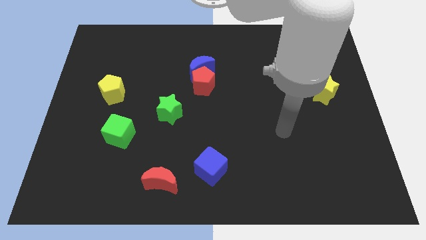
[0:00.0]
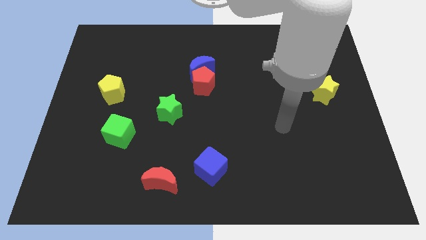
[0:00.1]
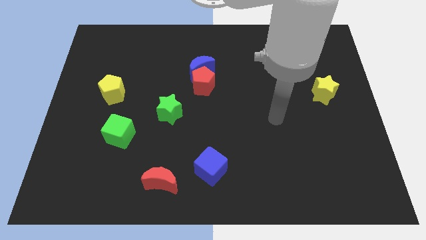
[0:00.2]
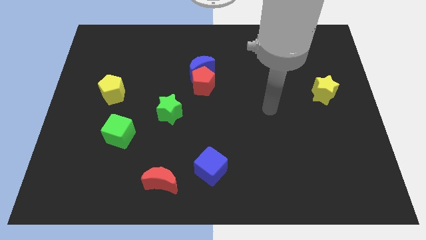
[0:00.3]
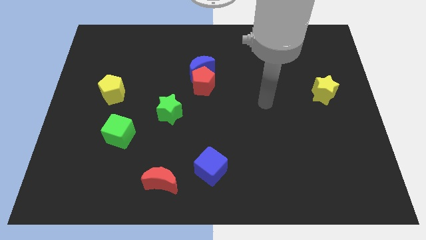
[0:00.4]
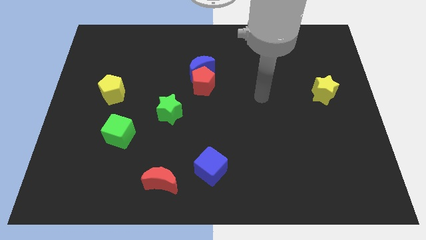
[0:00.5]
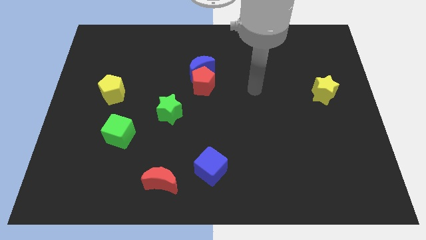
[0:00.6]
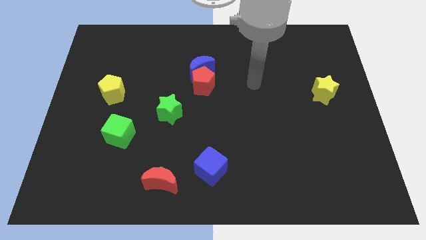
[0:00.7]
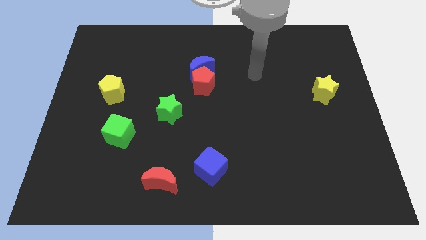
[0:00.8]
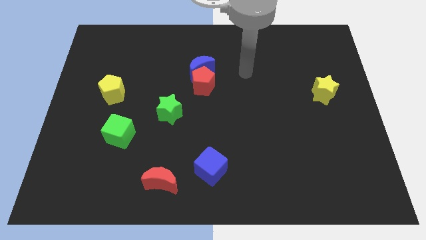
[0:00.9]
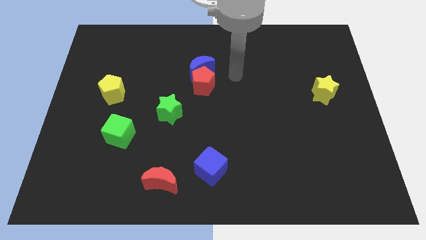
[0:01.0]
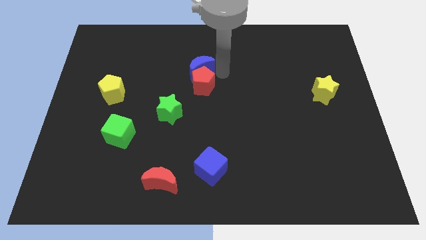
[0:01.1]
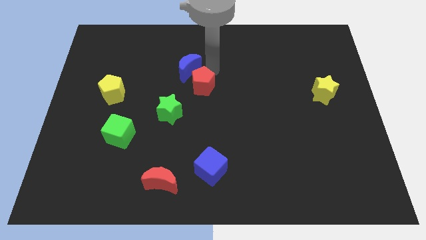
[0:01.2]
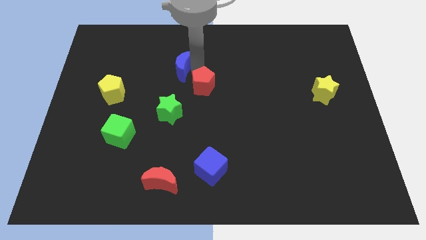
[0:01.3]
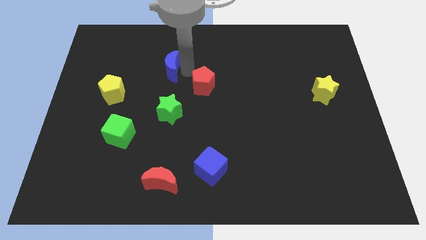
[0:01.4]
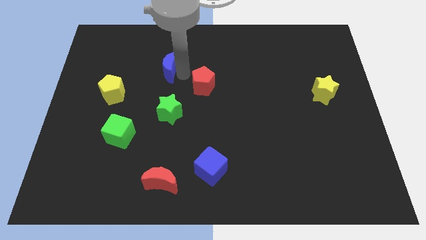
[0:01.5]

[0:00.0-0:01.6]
move the red pentagon away from the blue moon

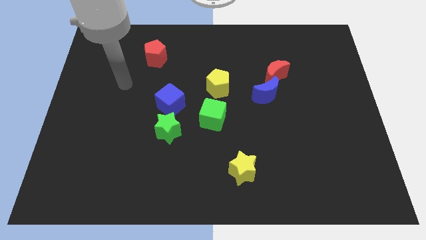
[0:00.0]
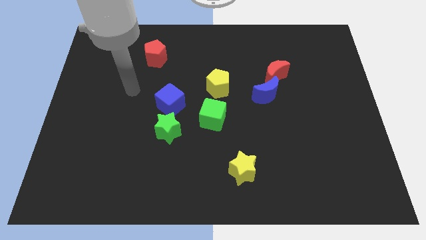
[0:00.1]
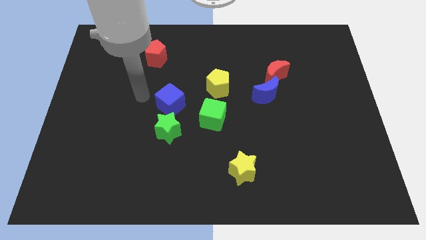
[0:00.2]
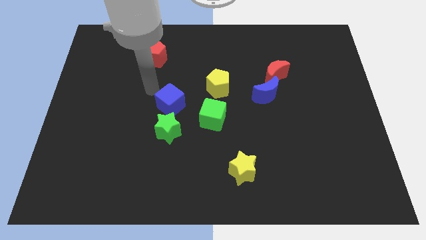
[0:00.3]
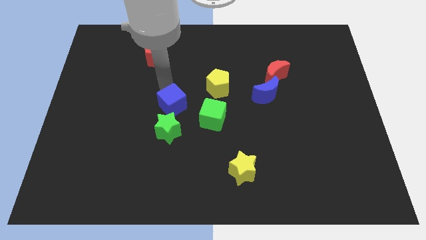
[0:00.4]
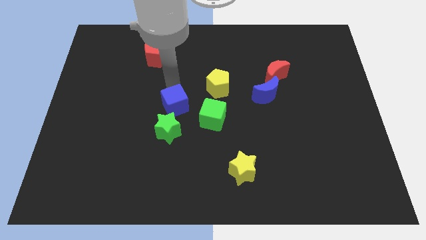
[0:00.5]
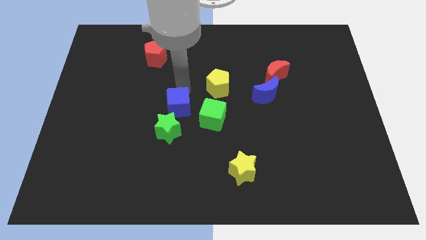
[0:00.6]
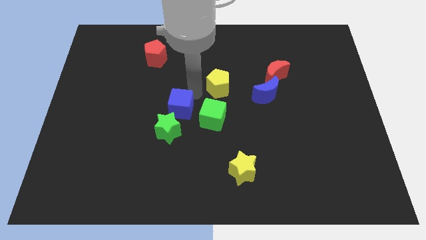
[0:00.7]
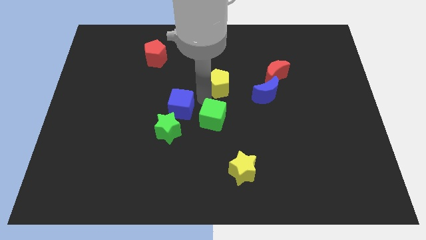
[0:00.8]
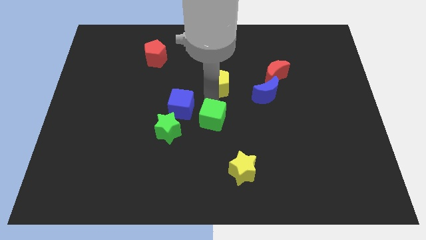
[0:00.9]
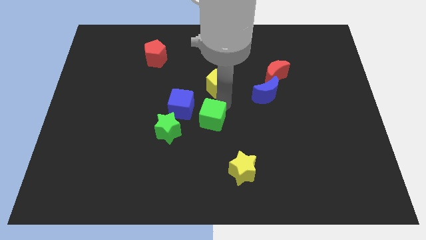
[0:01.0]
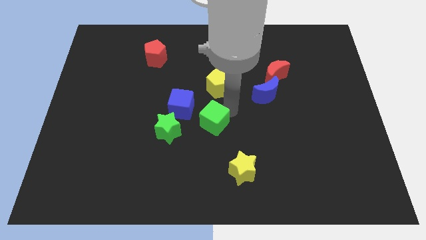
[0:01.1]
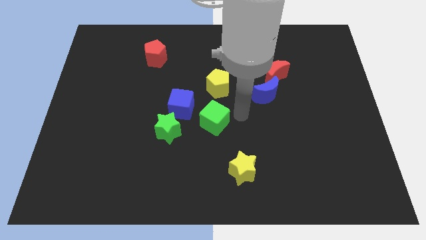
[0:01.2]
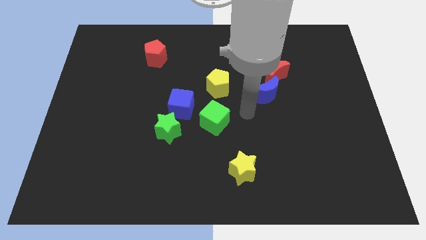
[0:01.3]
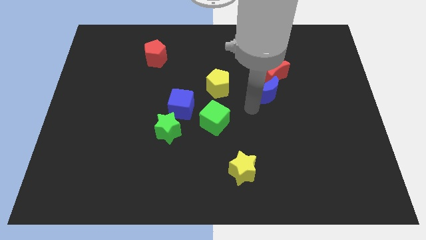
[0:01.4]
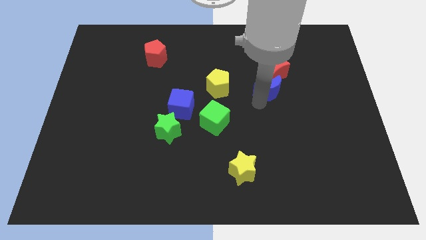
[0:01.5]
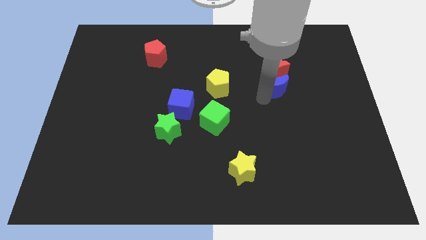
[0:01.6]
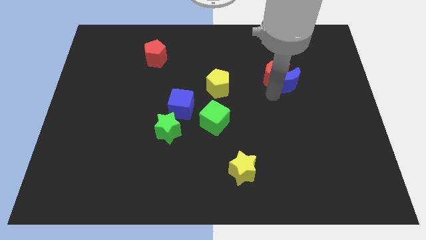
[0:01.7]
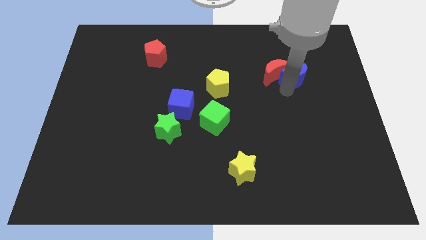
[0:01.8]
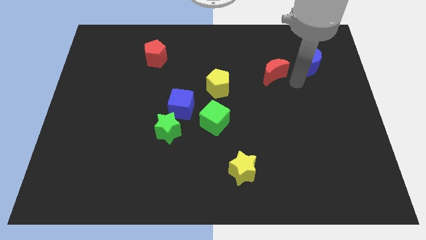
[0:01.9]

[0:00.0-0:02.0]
move the red moon away from the blue moon

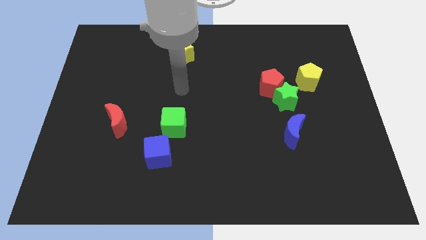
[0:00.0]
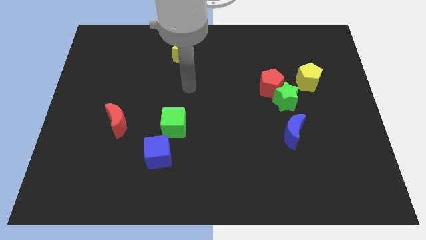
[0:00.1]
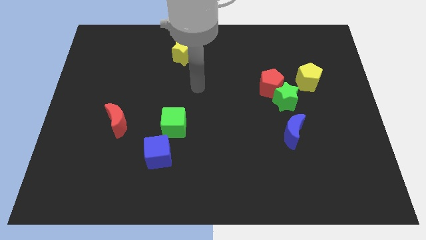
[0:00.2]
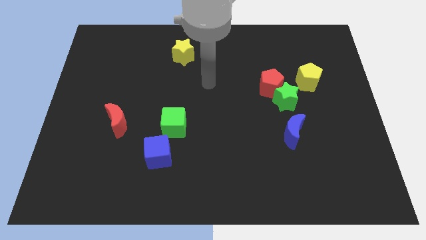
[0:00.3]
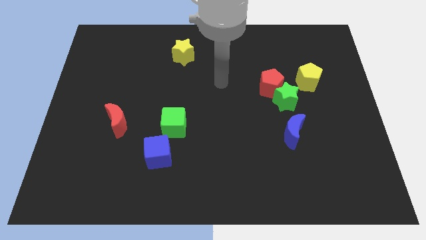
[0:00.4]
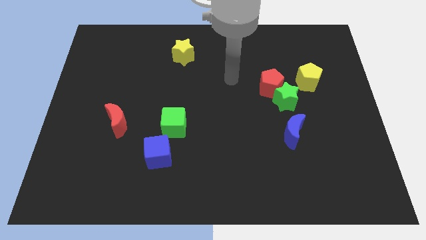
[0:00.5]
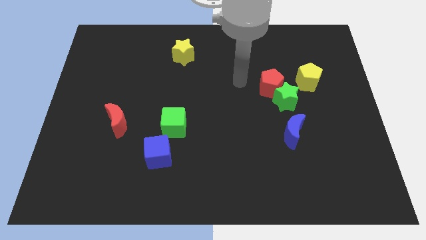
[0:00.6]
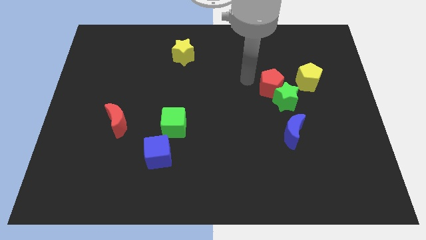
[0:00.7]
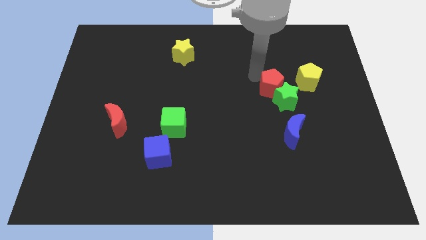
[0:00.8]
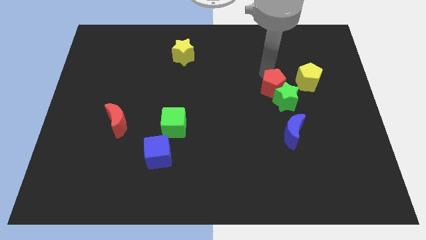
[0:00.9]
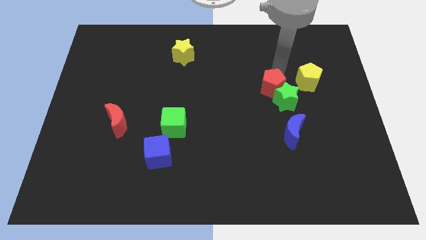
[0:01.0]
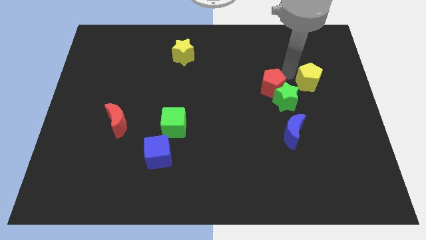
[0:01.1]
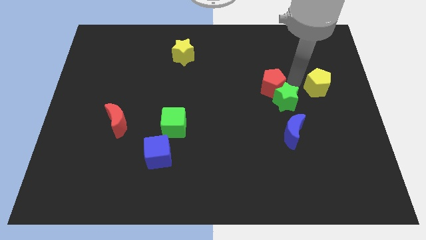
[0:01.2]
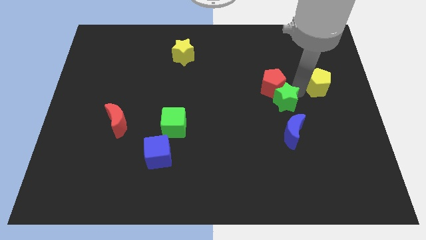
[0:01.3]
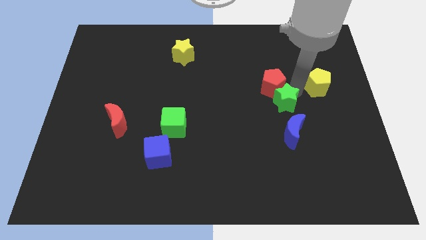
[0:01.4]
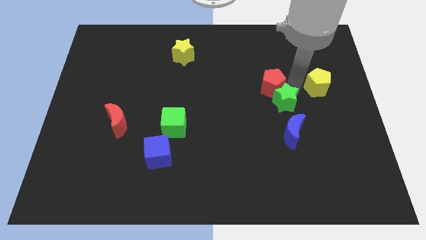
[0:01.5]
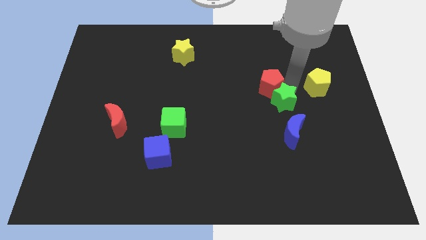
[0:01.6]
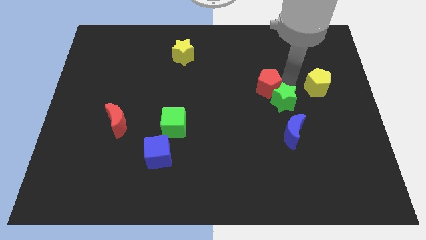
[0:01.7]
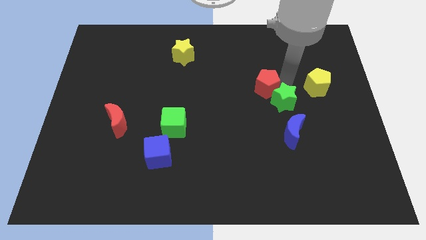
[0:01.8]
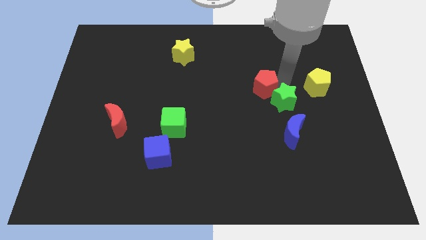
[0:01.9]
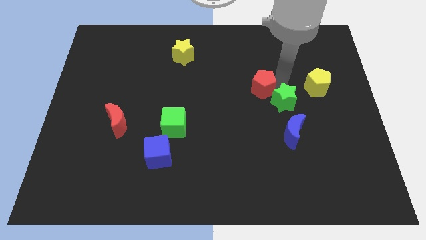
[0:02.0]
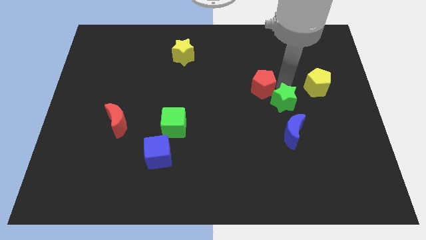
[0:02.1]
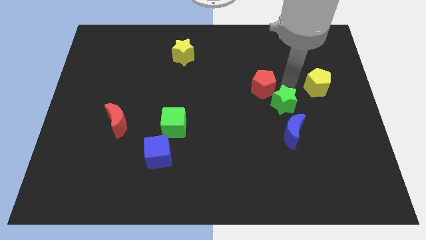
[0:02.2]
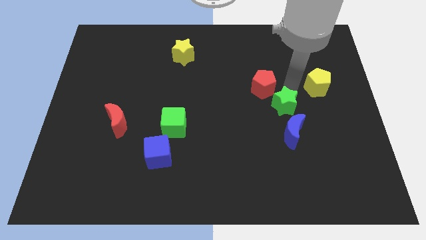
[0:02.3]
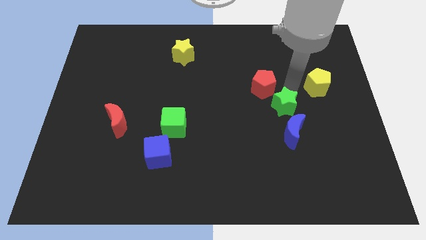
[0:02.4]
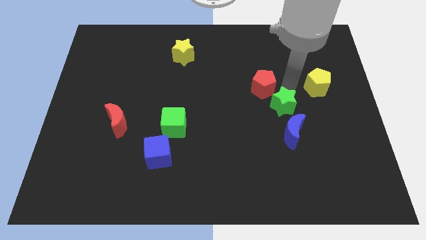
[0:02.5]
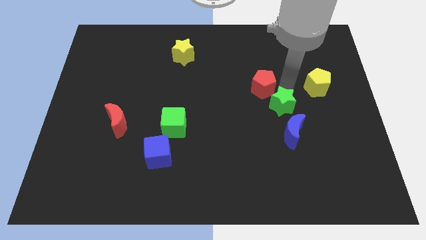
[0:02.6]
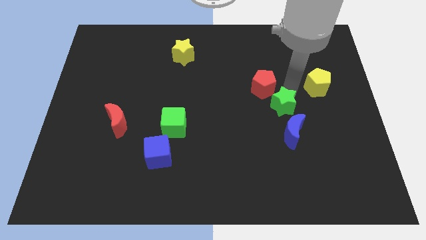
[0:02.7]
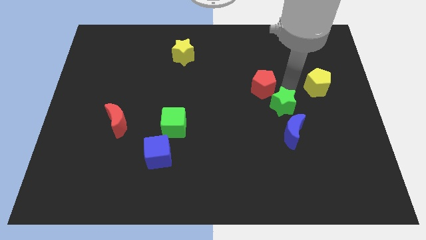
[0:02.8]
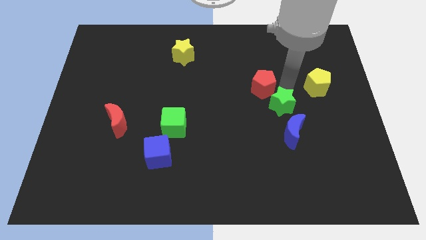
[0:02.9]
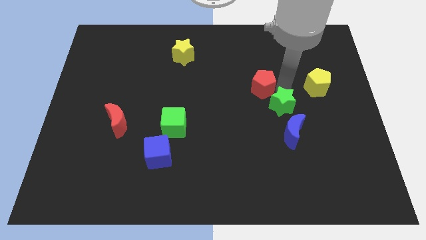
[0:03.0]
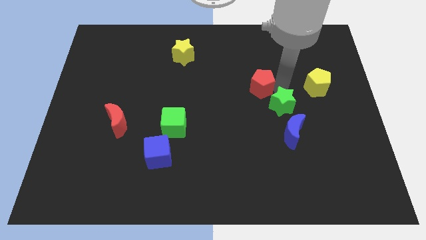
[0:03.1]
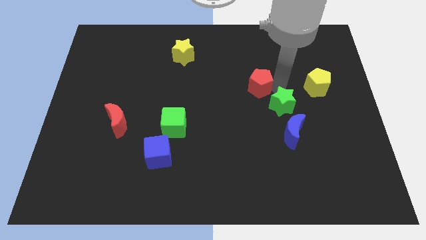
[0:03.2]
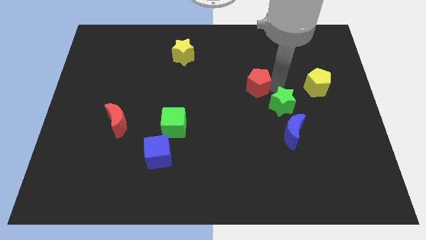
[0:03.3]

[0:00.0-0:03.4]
move the red pentagon away from the green star and yellow pentagon

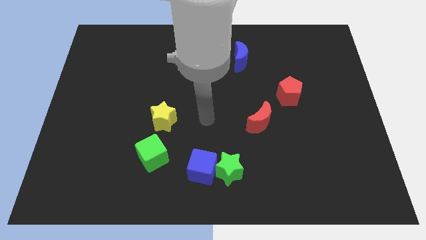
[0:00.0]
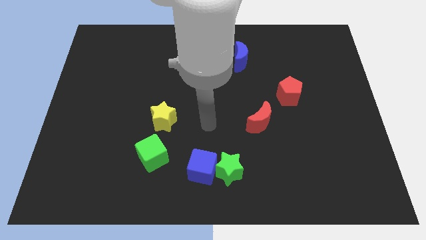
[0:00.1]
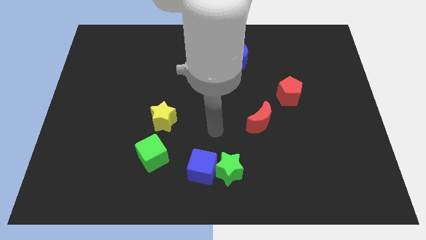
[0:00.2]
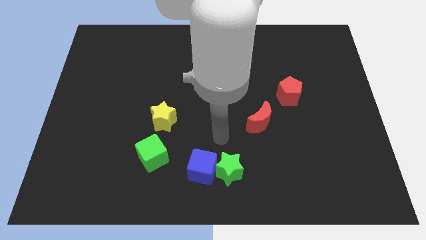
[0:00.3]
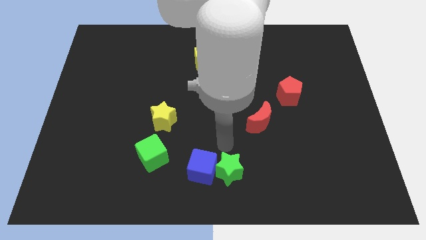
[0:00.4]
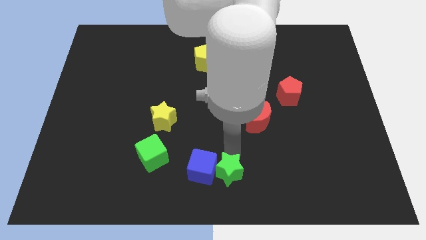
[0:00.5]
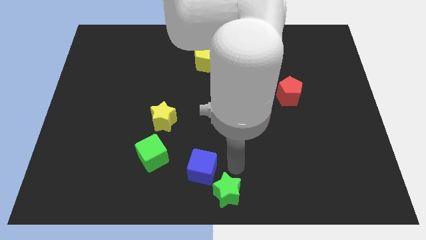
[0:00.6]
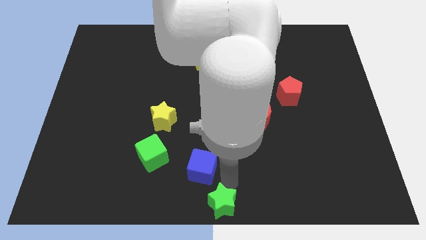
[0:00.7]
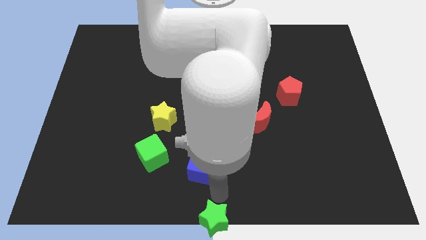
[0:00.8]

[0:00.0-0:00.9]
separate the blue cube from the green star

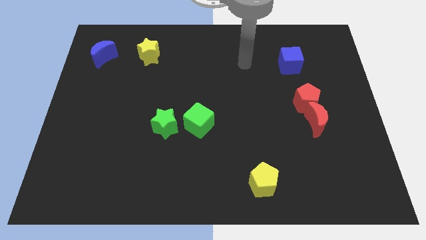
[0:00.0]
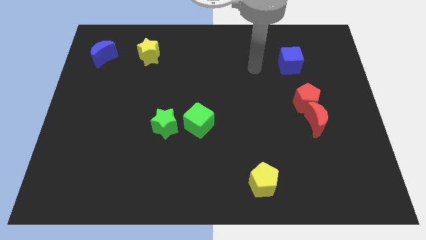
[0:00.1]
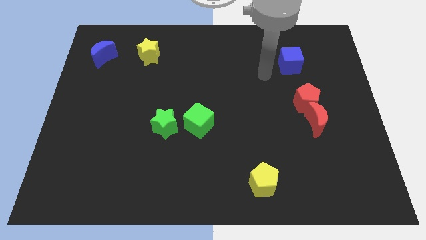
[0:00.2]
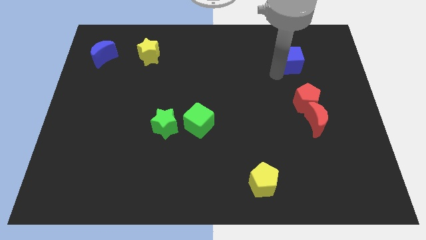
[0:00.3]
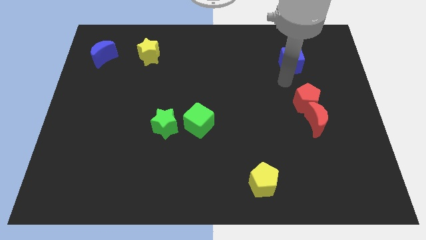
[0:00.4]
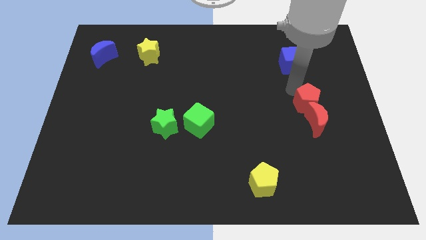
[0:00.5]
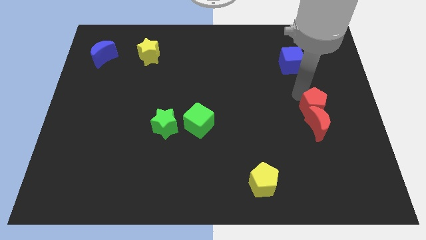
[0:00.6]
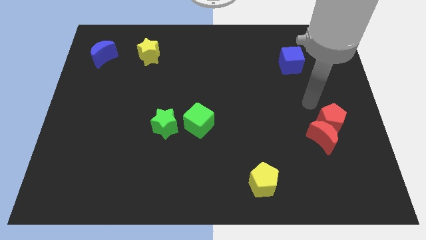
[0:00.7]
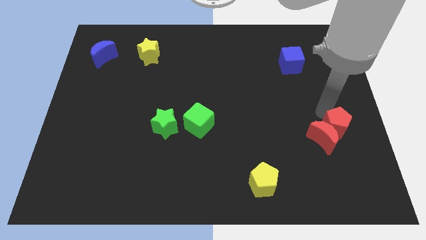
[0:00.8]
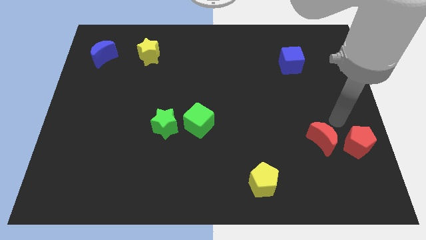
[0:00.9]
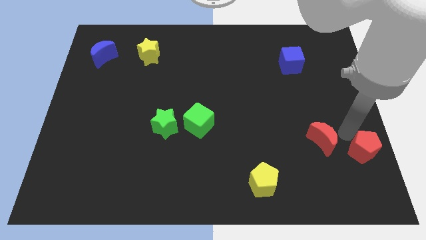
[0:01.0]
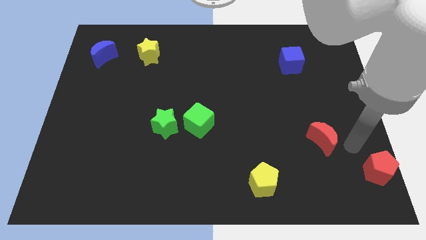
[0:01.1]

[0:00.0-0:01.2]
pull the red moon apart from the red pentagon

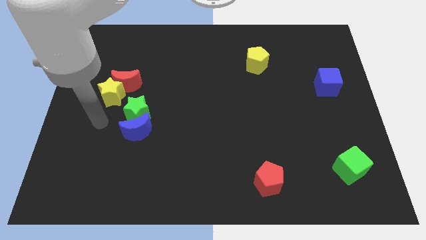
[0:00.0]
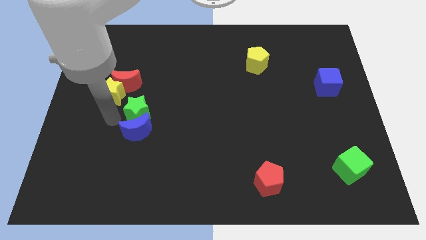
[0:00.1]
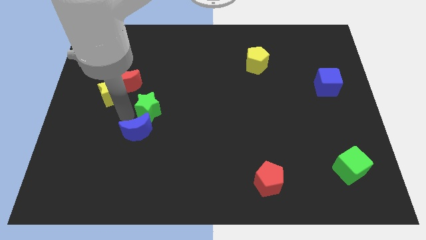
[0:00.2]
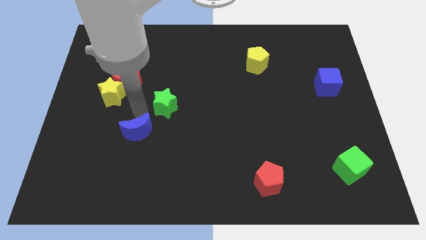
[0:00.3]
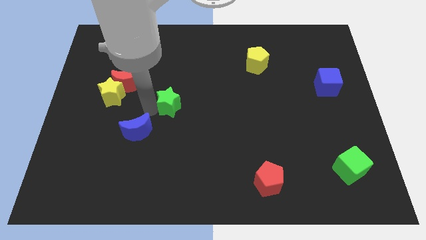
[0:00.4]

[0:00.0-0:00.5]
move the blue moon away from the green star
